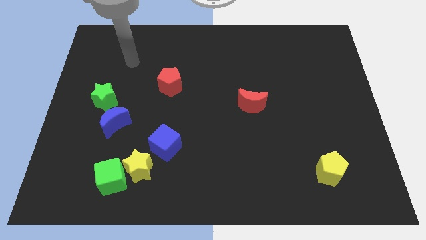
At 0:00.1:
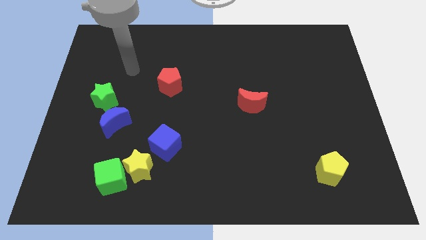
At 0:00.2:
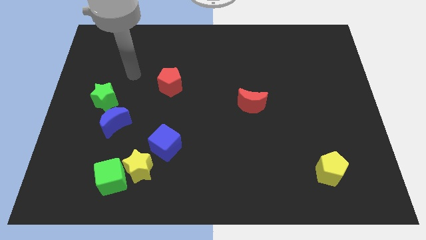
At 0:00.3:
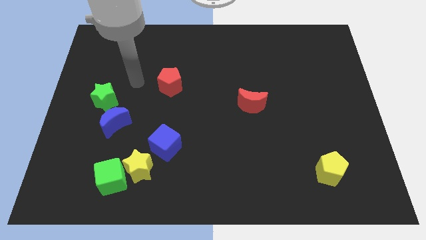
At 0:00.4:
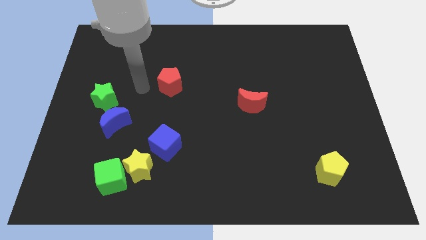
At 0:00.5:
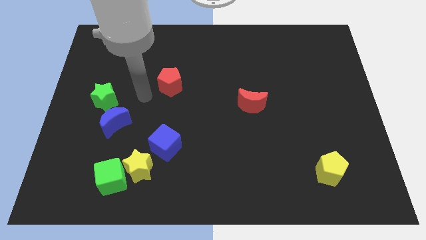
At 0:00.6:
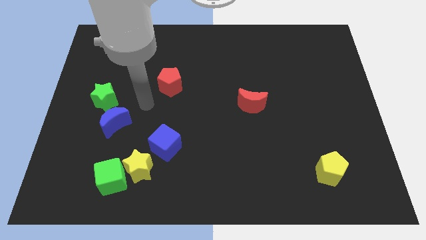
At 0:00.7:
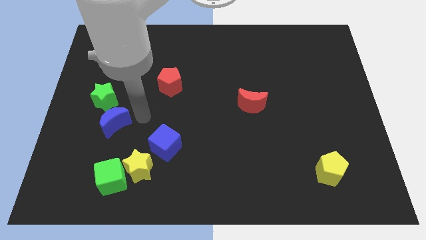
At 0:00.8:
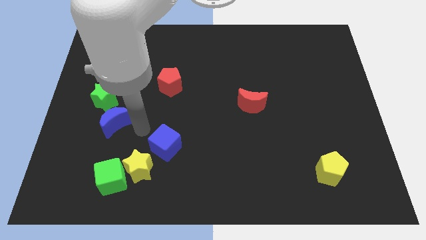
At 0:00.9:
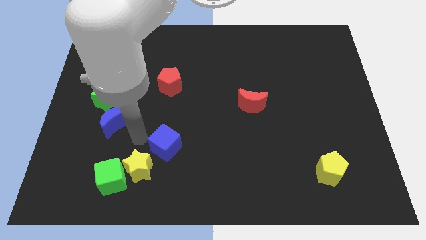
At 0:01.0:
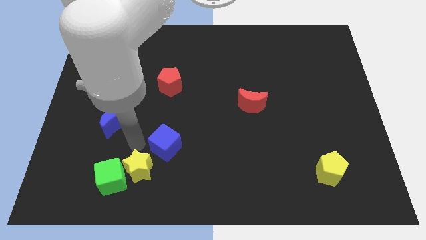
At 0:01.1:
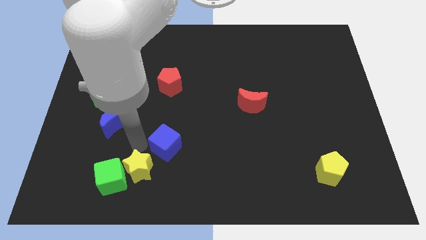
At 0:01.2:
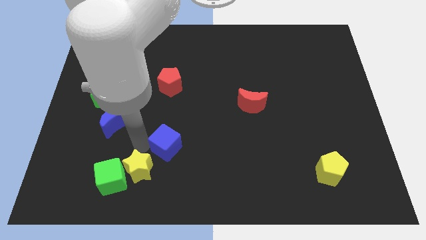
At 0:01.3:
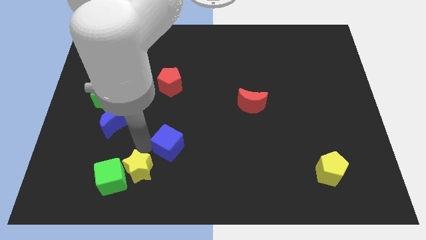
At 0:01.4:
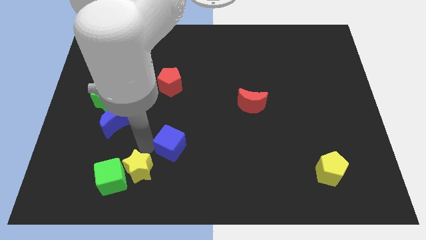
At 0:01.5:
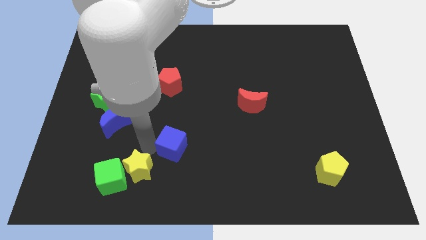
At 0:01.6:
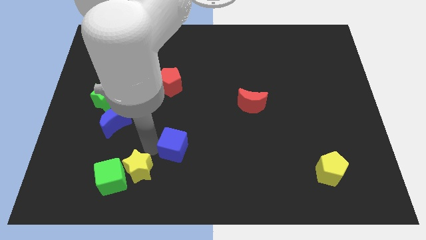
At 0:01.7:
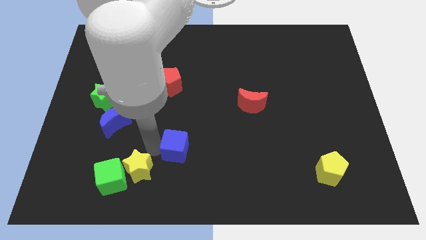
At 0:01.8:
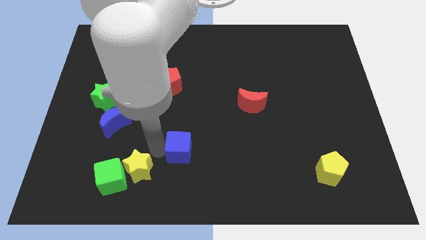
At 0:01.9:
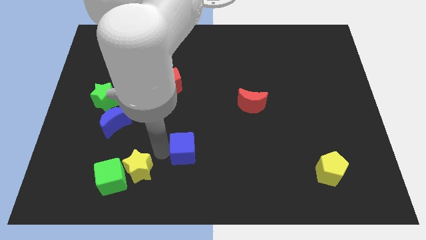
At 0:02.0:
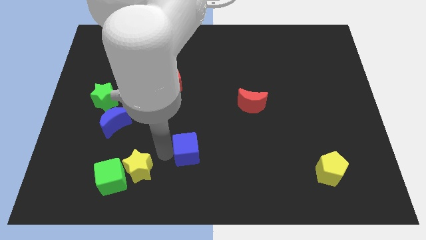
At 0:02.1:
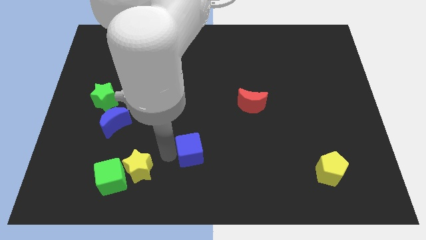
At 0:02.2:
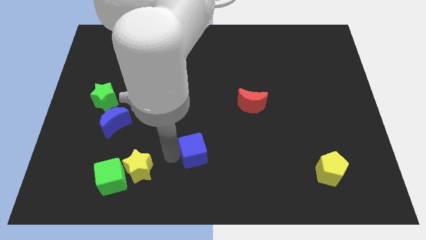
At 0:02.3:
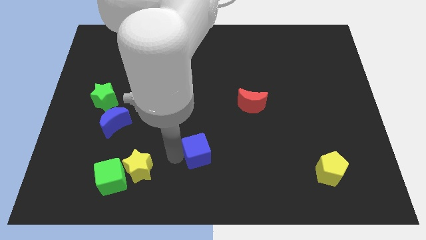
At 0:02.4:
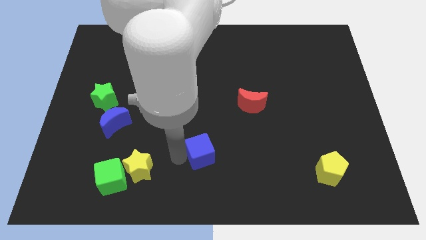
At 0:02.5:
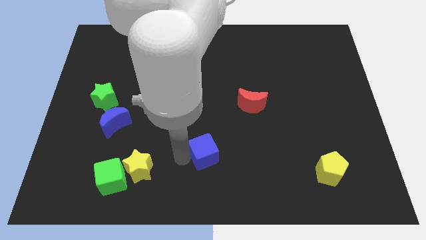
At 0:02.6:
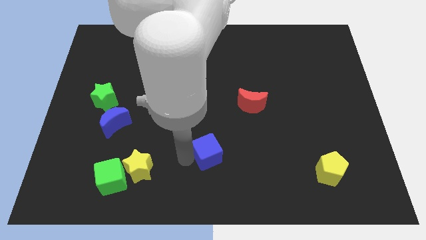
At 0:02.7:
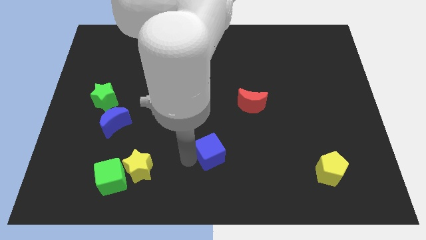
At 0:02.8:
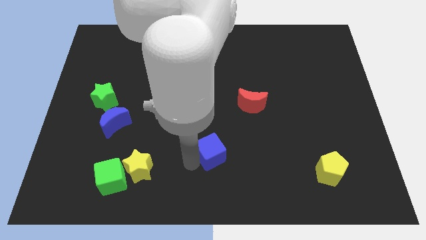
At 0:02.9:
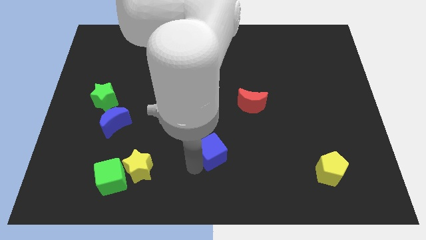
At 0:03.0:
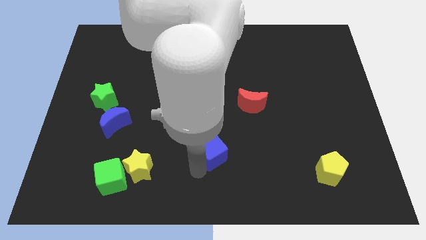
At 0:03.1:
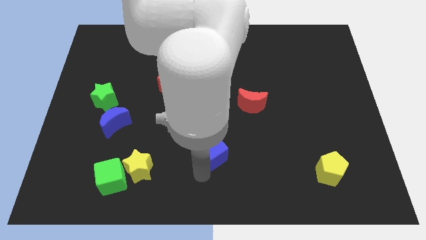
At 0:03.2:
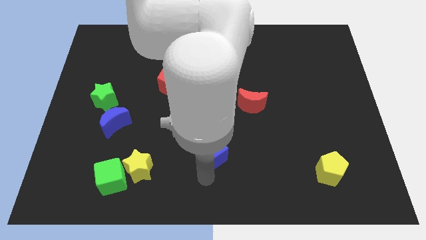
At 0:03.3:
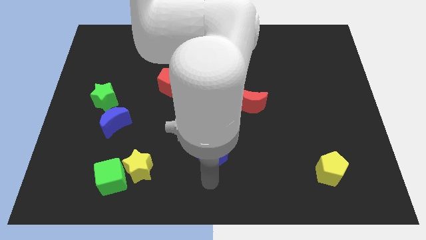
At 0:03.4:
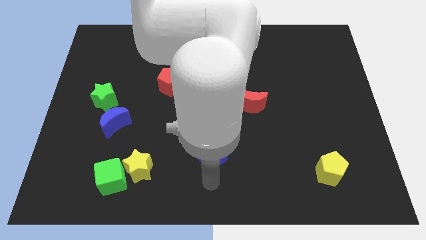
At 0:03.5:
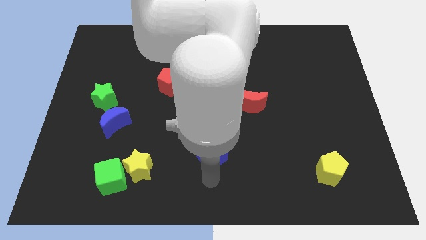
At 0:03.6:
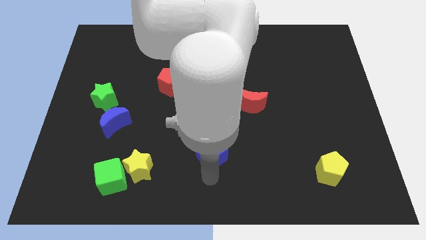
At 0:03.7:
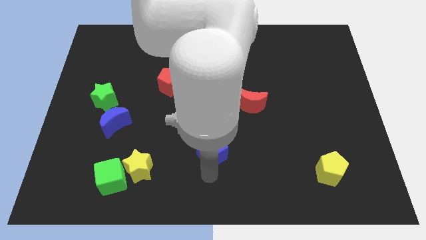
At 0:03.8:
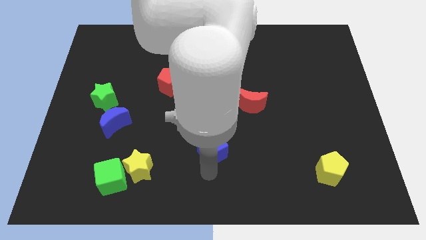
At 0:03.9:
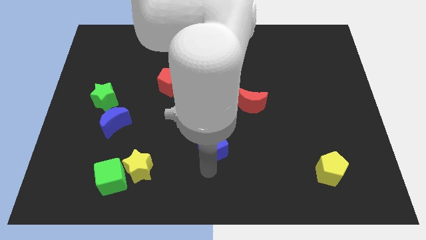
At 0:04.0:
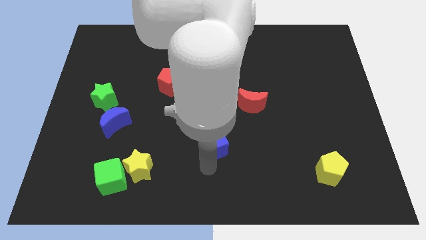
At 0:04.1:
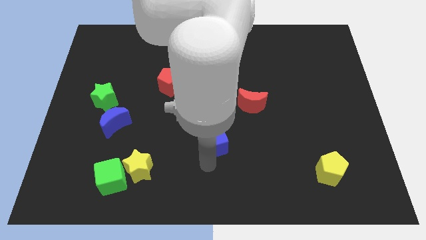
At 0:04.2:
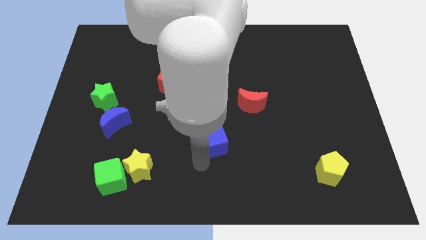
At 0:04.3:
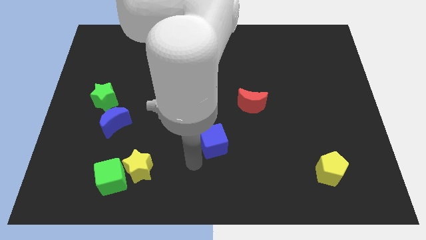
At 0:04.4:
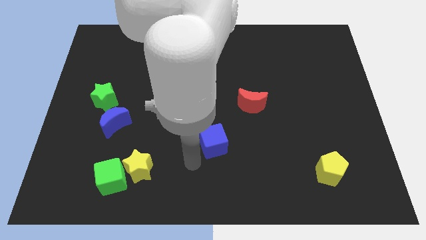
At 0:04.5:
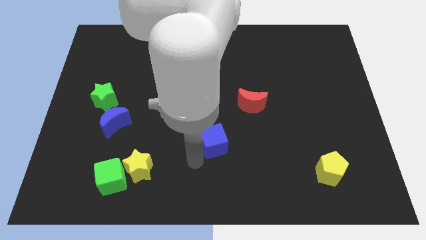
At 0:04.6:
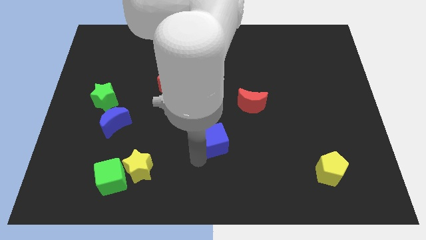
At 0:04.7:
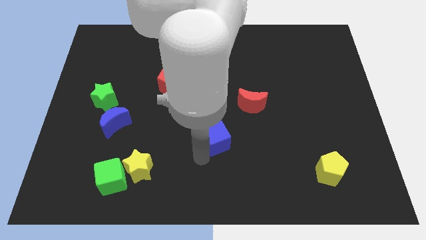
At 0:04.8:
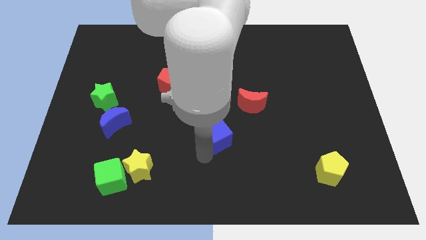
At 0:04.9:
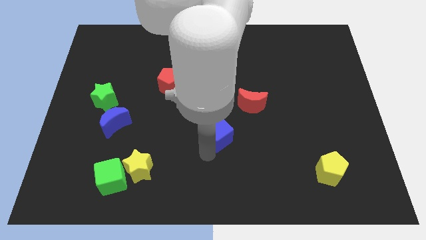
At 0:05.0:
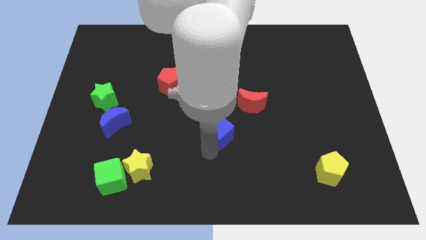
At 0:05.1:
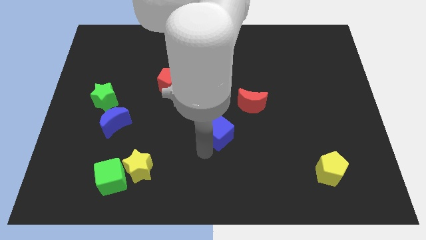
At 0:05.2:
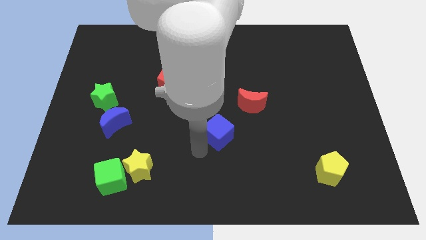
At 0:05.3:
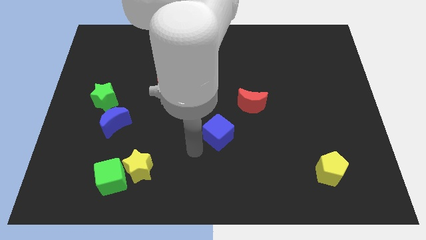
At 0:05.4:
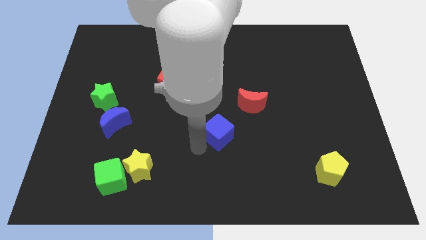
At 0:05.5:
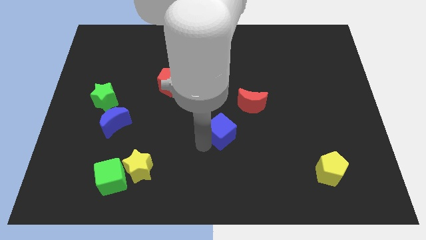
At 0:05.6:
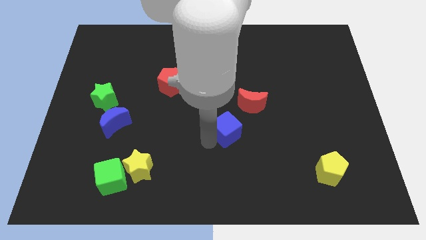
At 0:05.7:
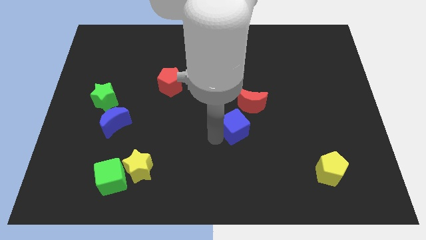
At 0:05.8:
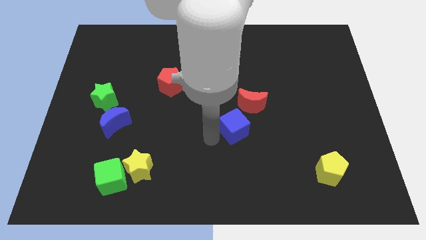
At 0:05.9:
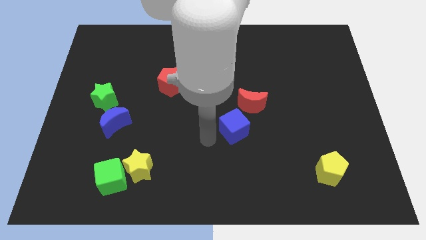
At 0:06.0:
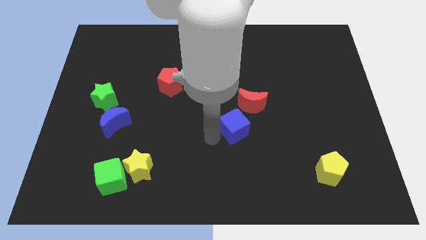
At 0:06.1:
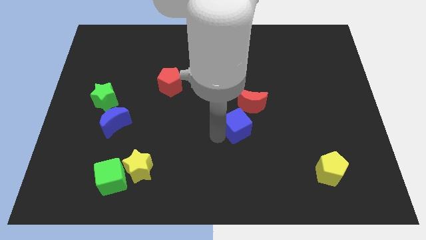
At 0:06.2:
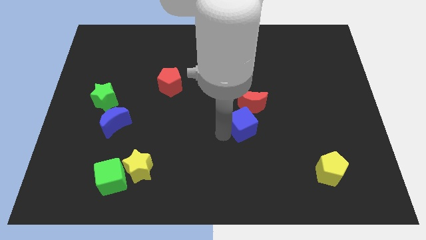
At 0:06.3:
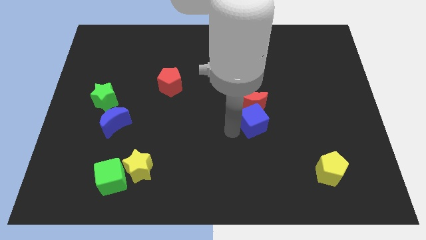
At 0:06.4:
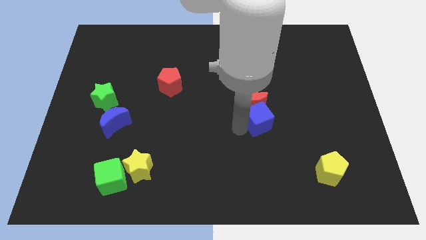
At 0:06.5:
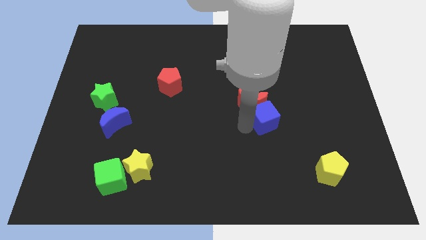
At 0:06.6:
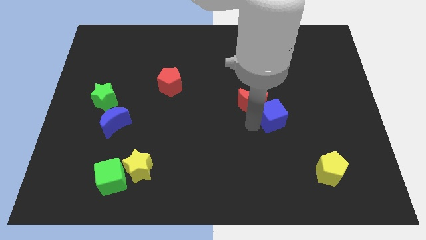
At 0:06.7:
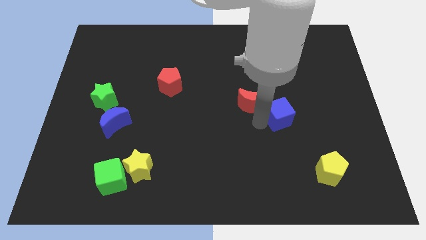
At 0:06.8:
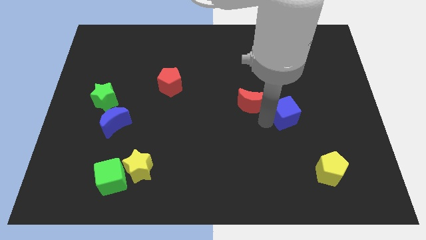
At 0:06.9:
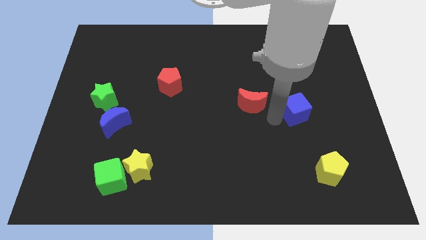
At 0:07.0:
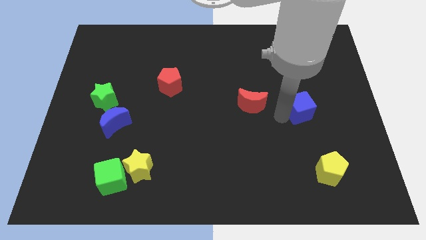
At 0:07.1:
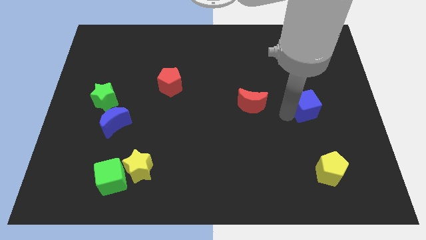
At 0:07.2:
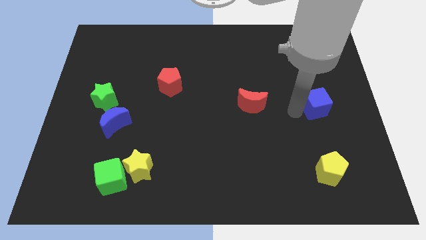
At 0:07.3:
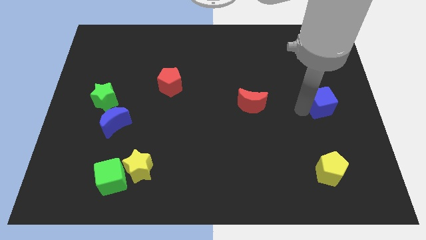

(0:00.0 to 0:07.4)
push the blue cube to the right side of the board
